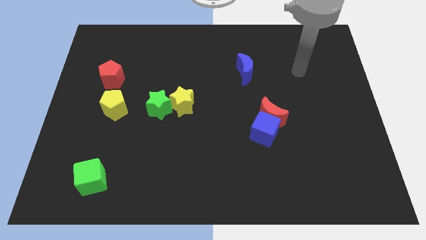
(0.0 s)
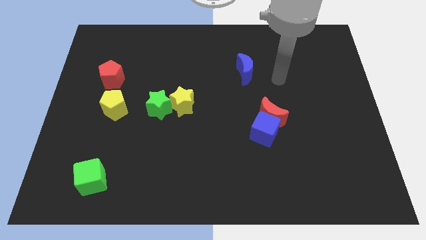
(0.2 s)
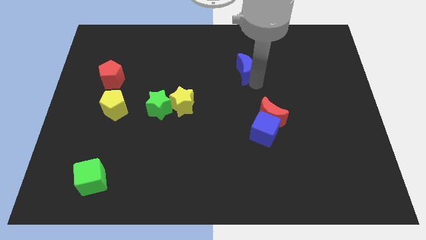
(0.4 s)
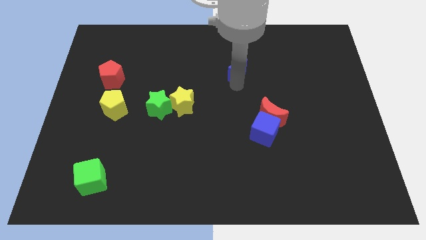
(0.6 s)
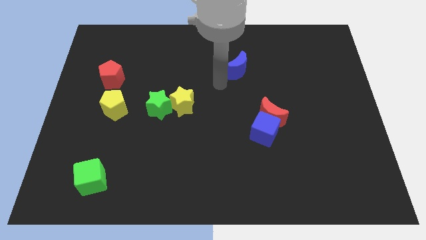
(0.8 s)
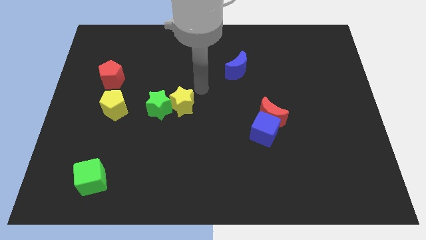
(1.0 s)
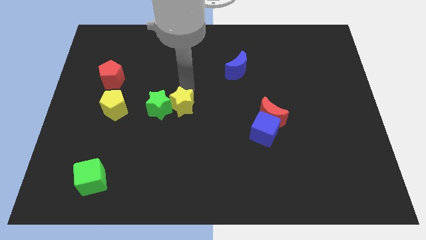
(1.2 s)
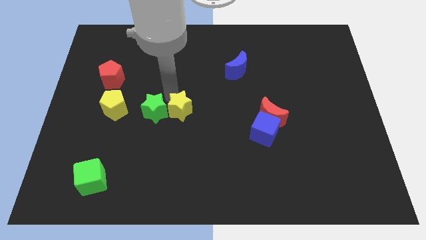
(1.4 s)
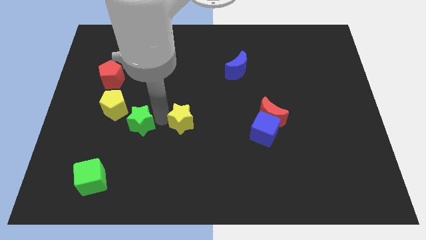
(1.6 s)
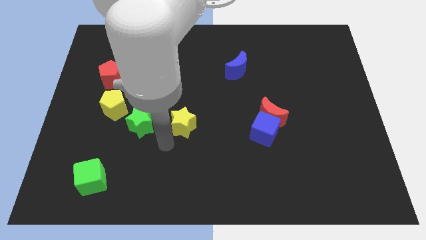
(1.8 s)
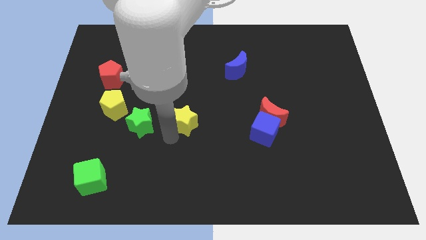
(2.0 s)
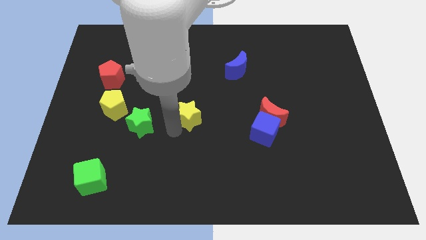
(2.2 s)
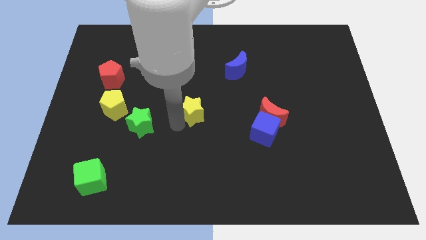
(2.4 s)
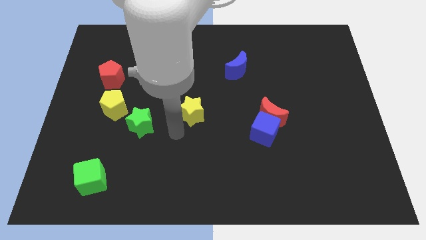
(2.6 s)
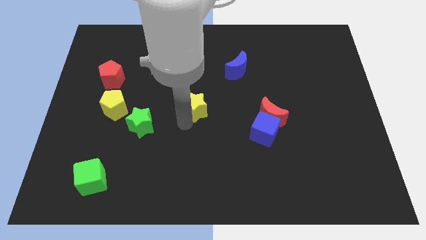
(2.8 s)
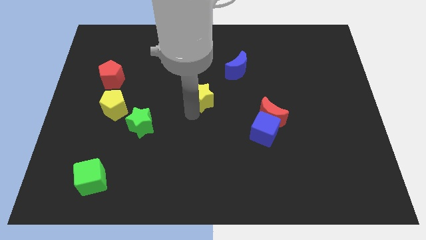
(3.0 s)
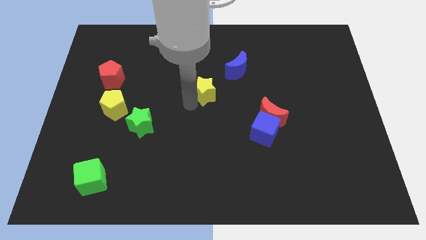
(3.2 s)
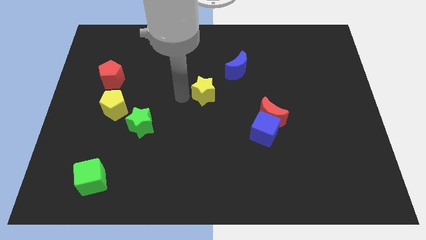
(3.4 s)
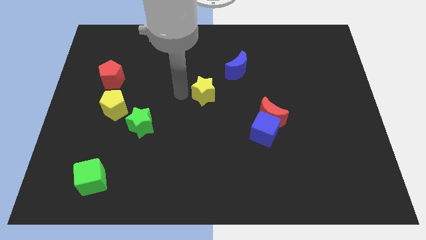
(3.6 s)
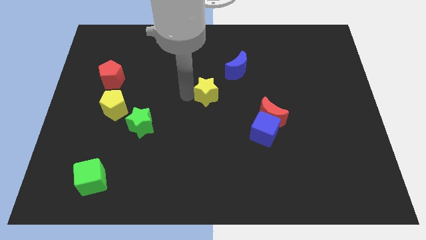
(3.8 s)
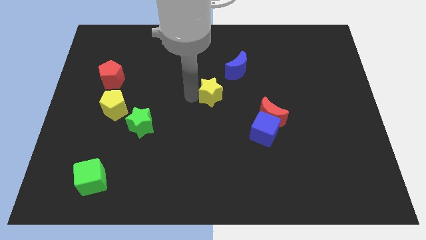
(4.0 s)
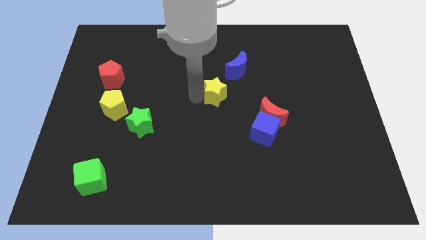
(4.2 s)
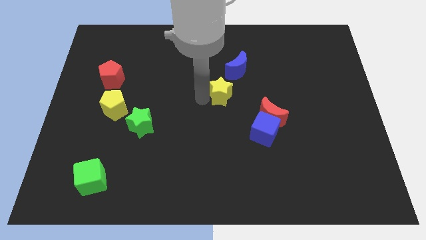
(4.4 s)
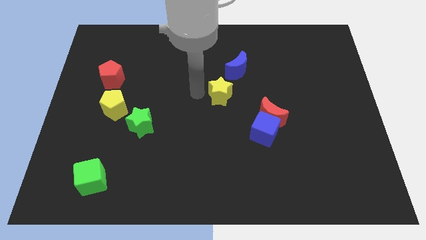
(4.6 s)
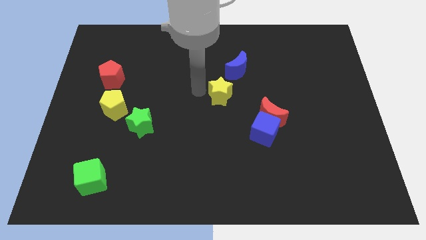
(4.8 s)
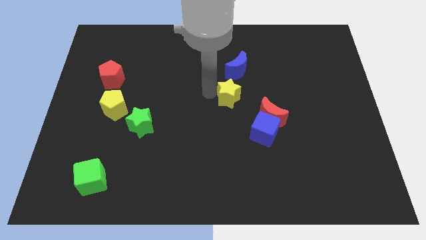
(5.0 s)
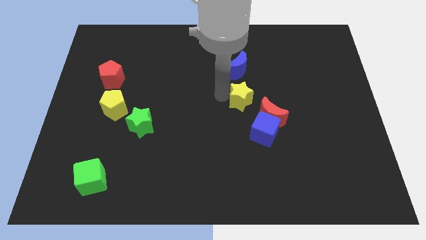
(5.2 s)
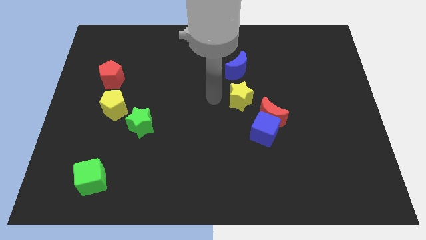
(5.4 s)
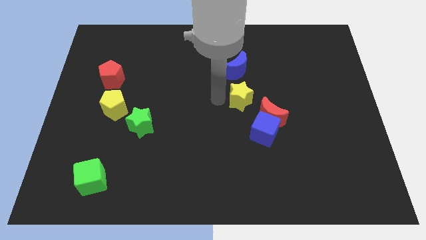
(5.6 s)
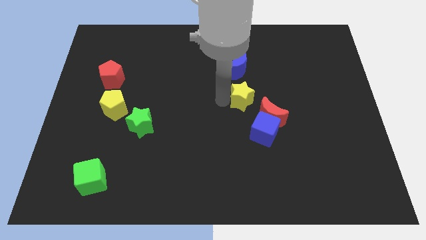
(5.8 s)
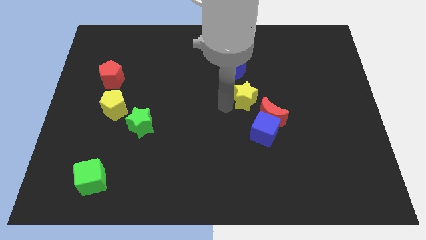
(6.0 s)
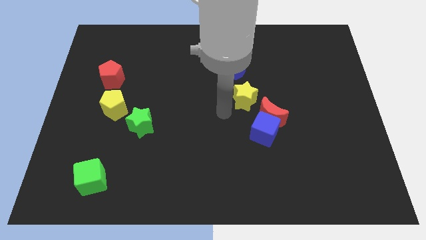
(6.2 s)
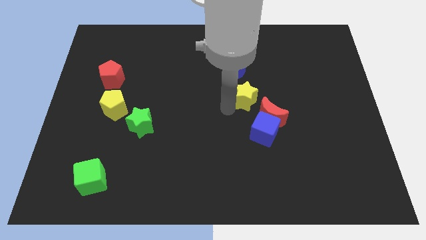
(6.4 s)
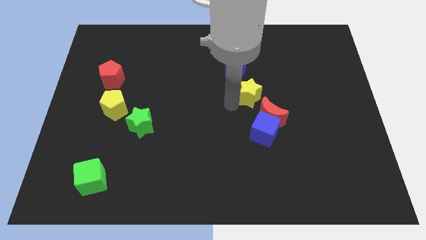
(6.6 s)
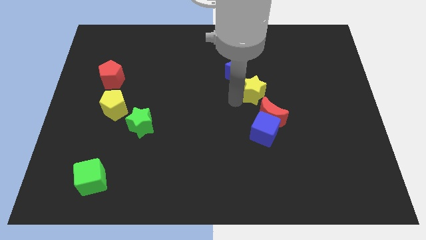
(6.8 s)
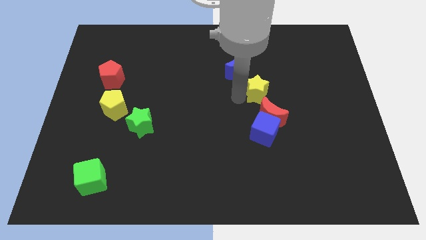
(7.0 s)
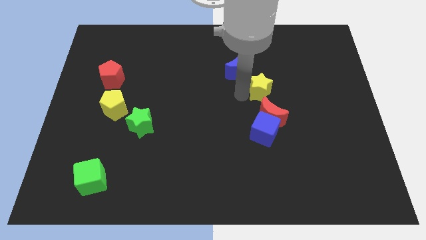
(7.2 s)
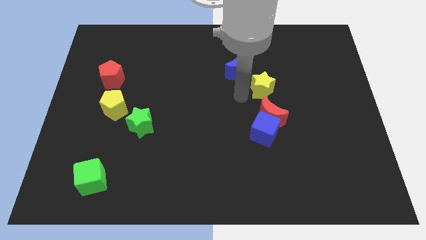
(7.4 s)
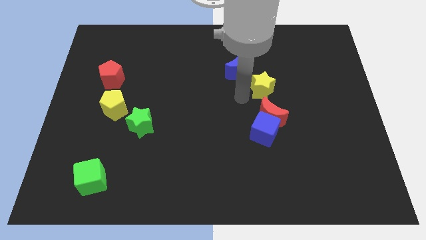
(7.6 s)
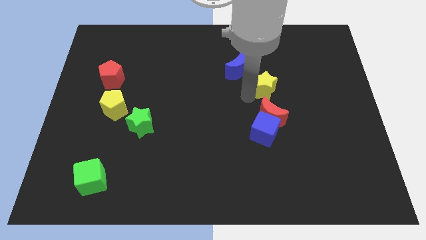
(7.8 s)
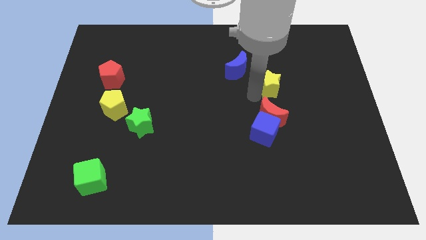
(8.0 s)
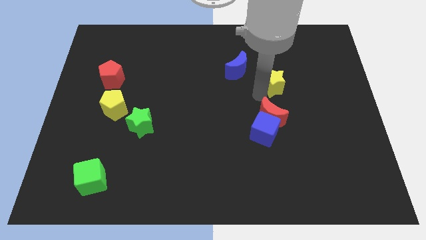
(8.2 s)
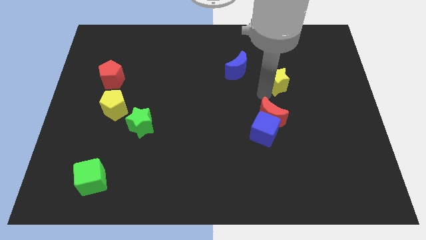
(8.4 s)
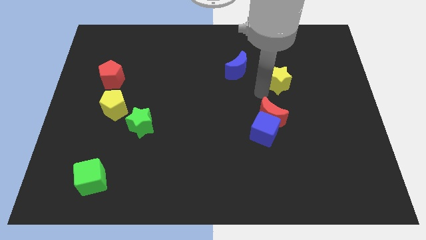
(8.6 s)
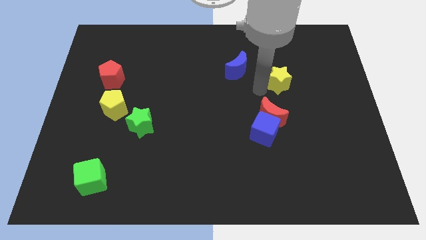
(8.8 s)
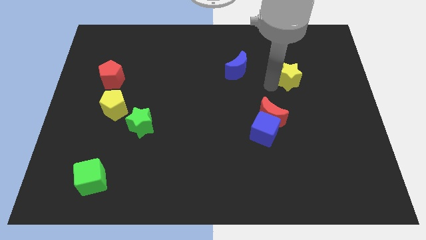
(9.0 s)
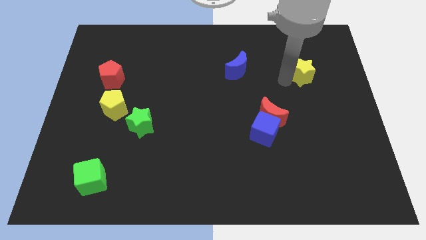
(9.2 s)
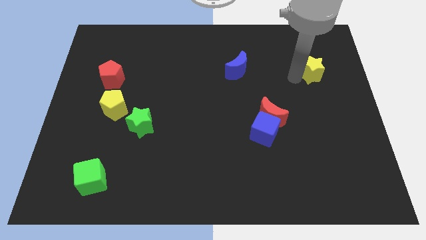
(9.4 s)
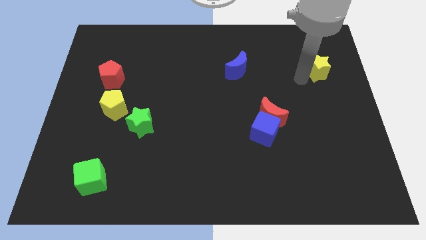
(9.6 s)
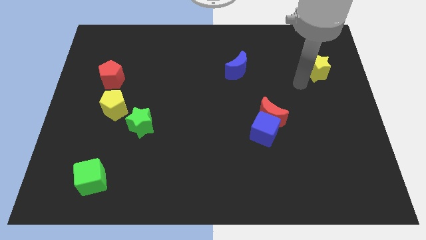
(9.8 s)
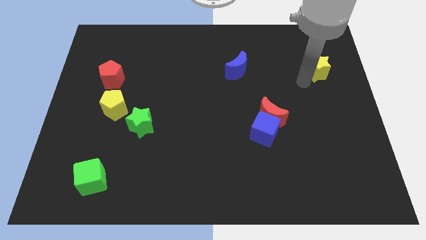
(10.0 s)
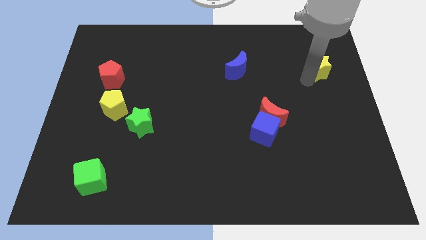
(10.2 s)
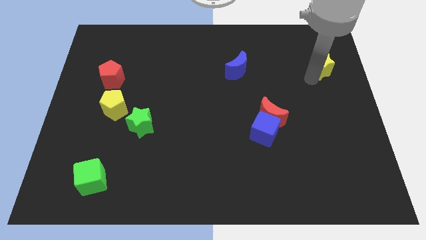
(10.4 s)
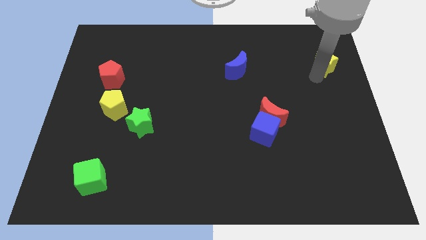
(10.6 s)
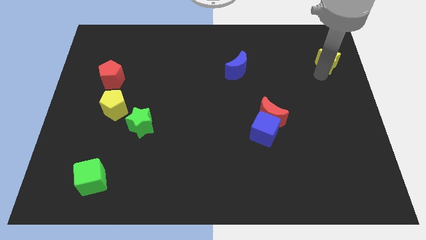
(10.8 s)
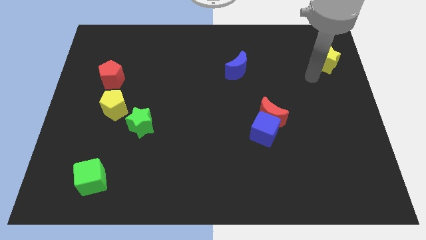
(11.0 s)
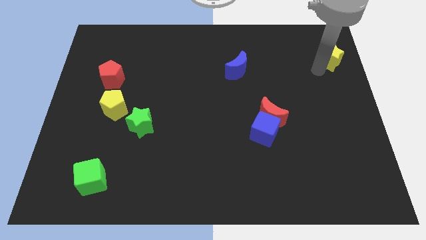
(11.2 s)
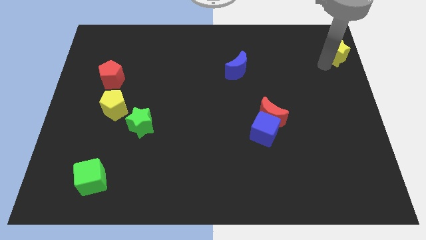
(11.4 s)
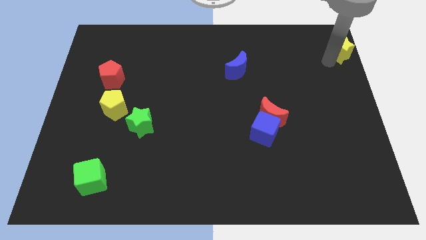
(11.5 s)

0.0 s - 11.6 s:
push the yellow star to the top right
